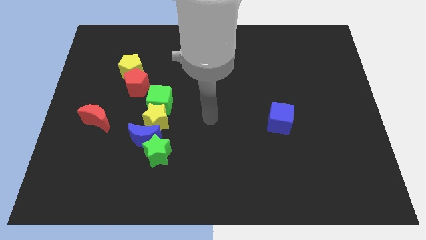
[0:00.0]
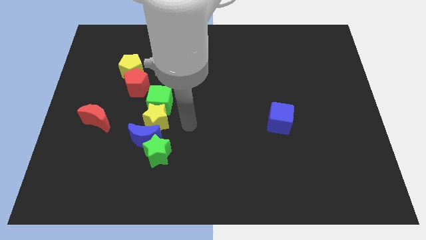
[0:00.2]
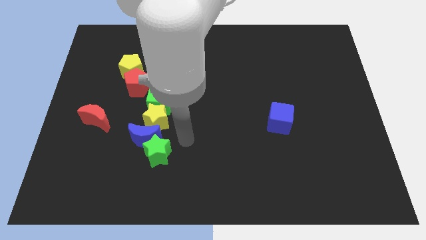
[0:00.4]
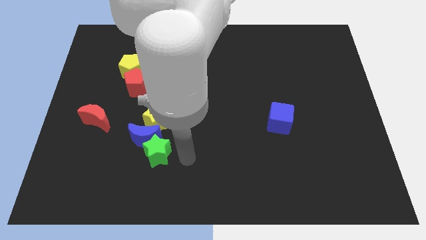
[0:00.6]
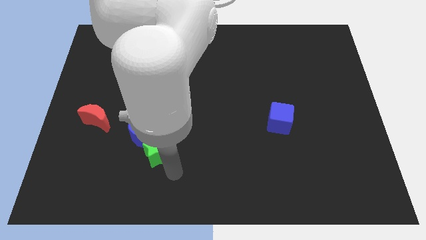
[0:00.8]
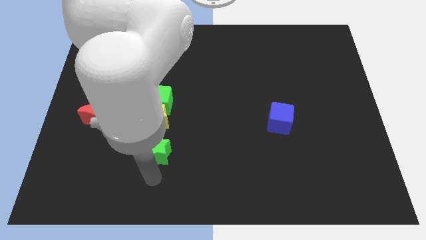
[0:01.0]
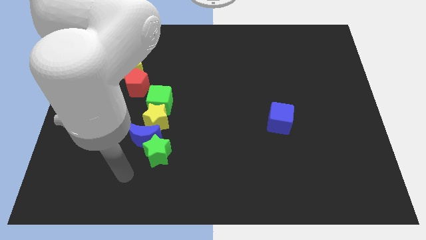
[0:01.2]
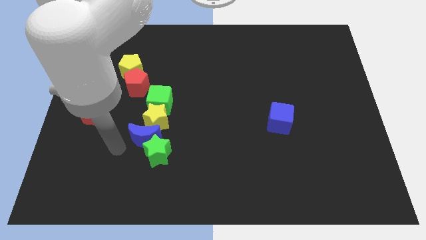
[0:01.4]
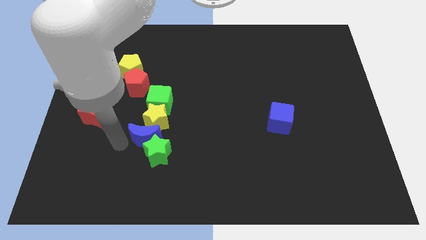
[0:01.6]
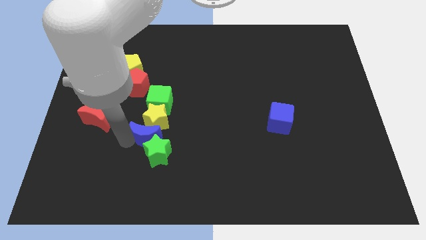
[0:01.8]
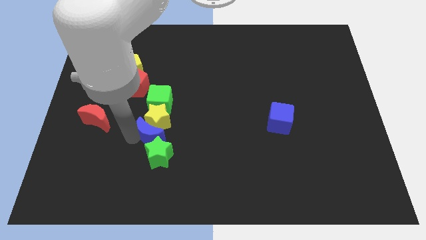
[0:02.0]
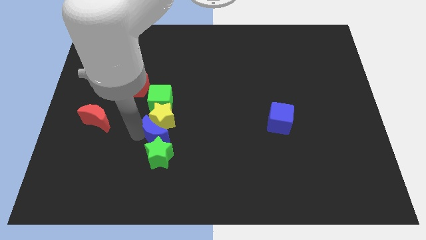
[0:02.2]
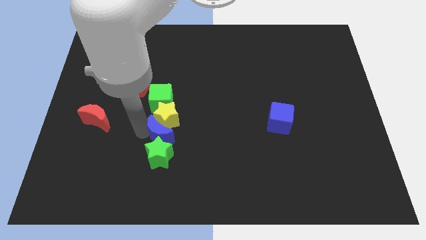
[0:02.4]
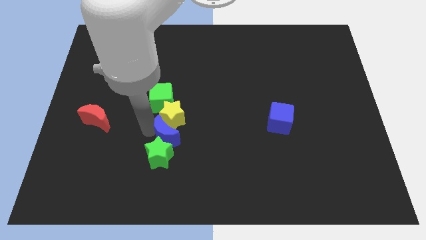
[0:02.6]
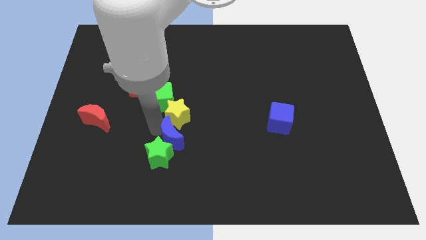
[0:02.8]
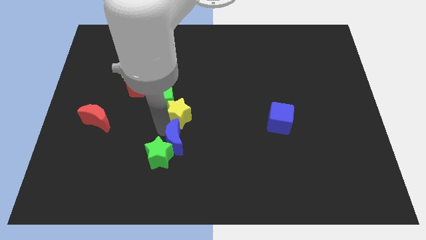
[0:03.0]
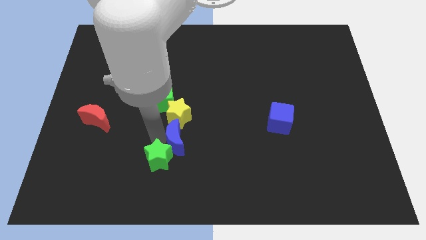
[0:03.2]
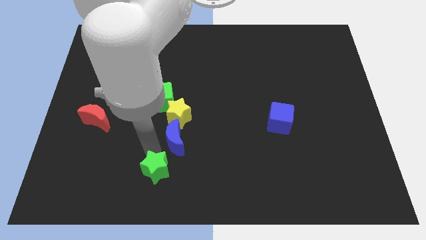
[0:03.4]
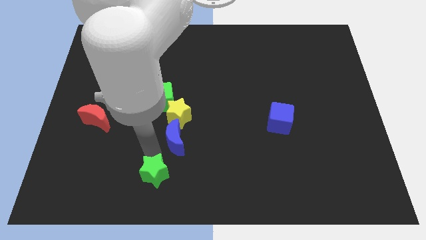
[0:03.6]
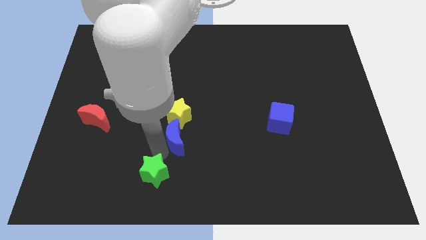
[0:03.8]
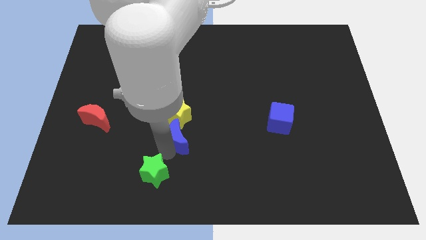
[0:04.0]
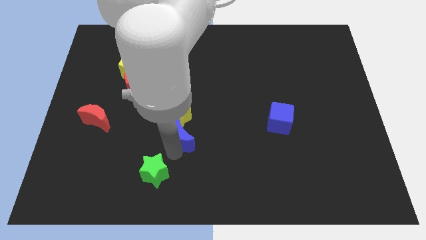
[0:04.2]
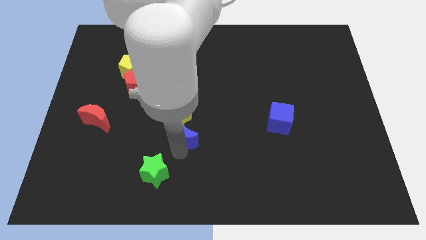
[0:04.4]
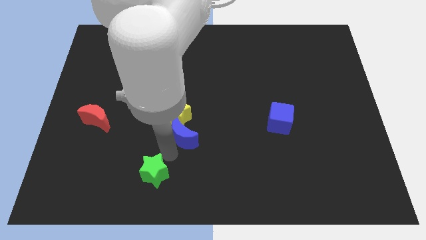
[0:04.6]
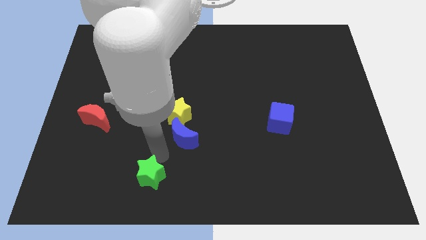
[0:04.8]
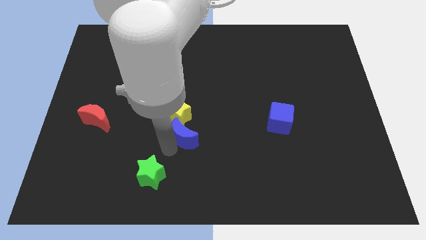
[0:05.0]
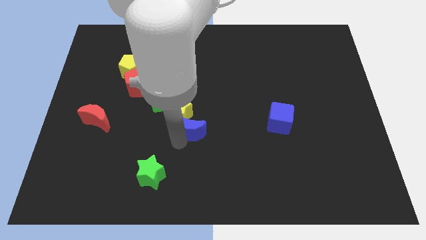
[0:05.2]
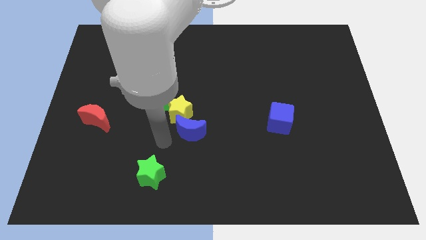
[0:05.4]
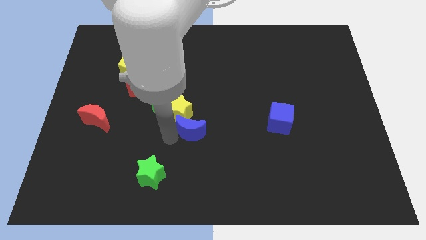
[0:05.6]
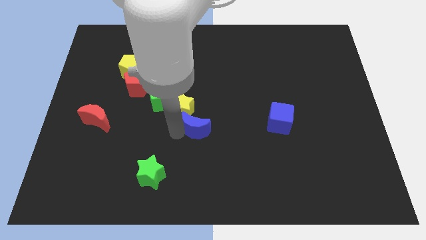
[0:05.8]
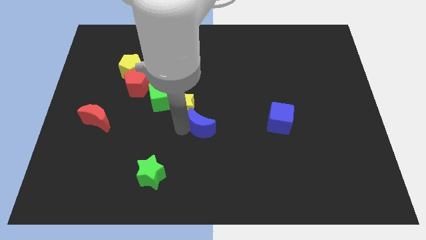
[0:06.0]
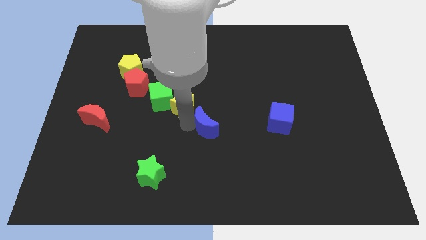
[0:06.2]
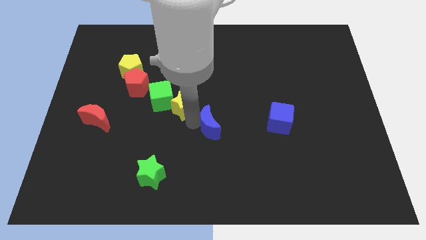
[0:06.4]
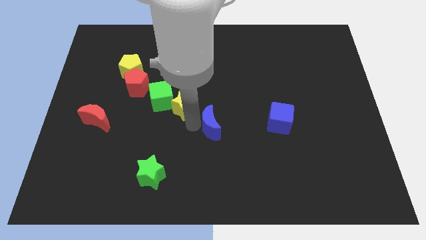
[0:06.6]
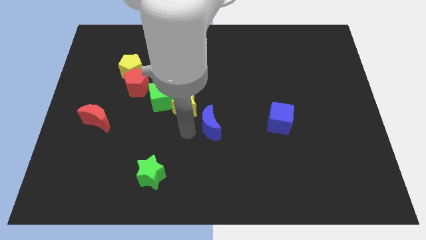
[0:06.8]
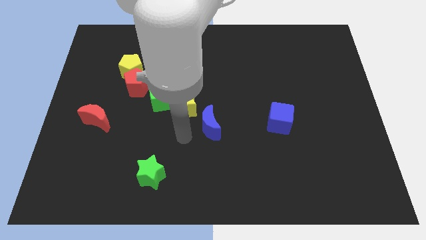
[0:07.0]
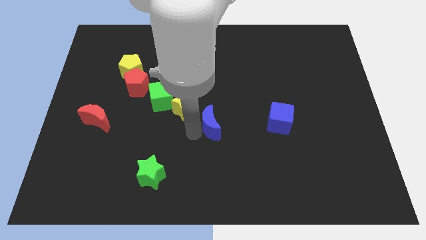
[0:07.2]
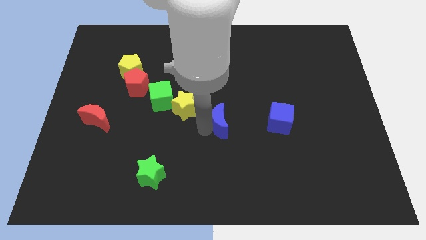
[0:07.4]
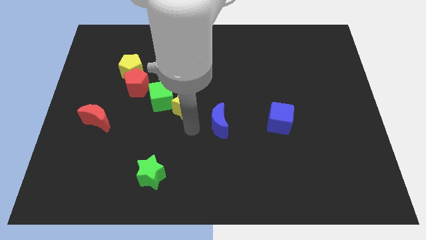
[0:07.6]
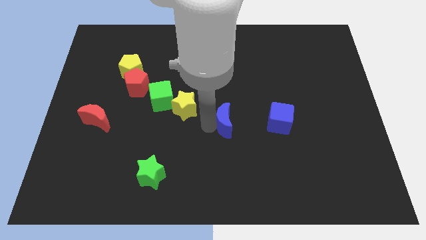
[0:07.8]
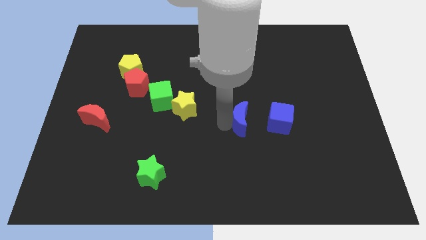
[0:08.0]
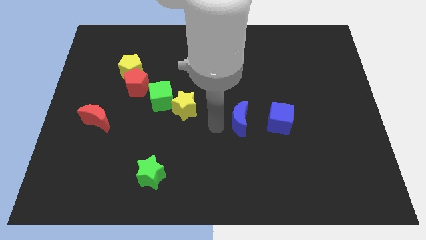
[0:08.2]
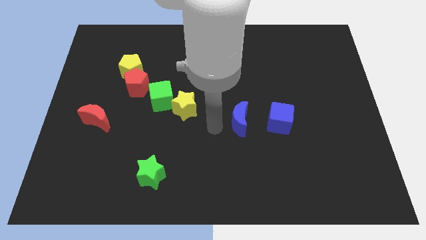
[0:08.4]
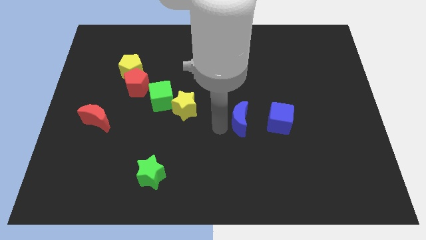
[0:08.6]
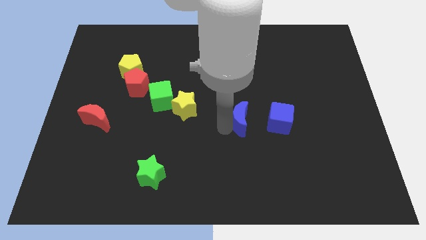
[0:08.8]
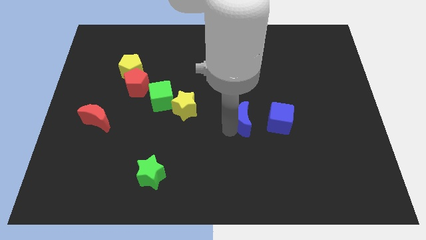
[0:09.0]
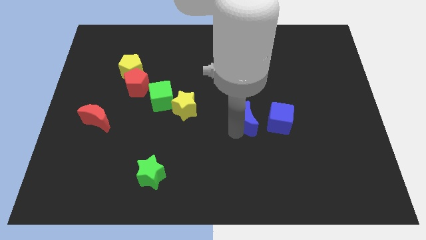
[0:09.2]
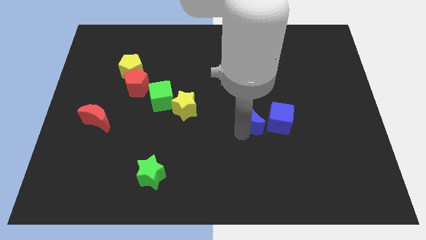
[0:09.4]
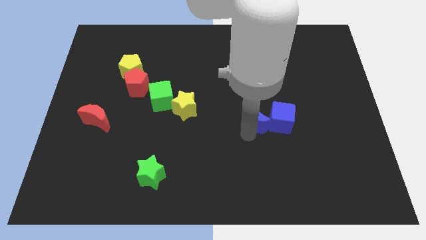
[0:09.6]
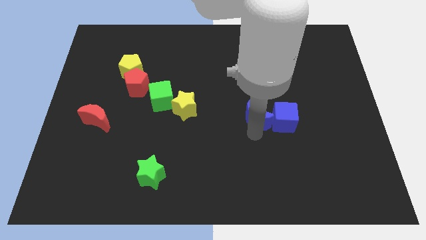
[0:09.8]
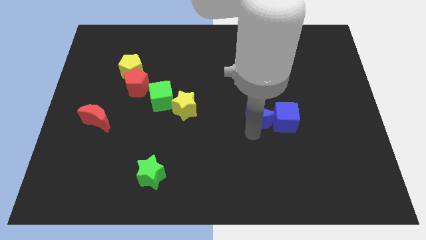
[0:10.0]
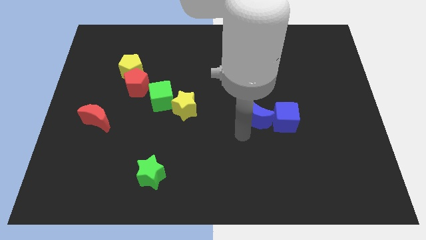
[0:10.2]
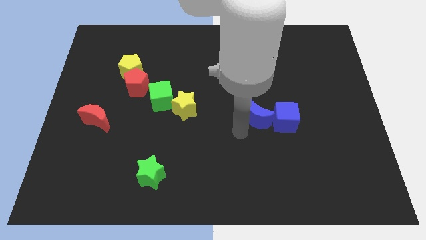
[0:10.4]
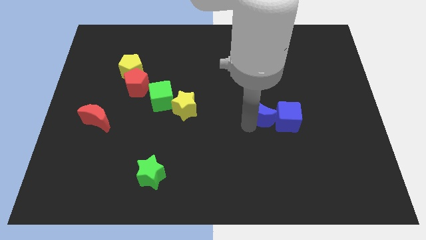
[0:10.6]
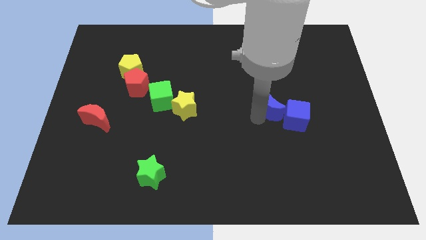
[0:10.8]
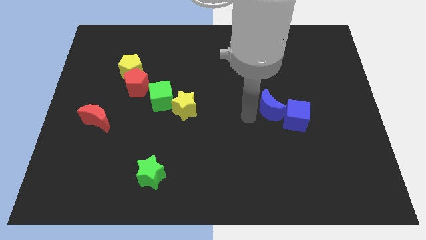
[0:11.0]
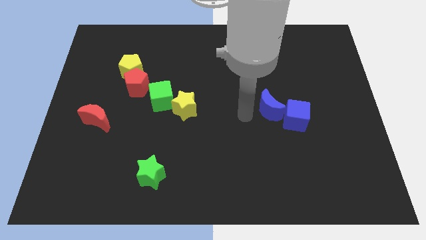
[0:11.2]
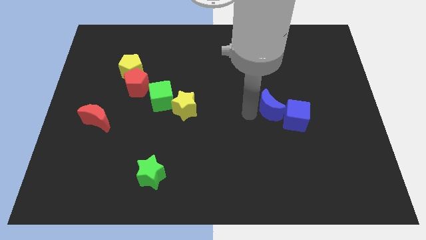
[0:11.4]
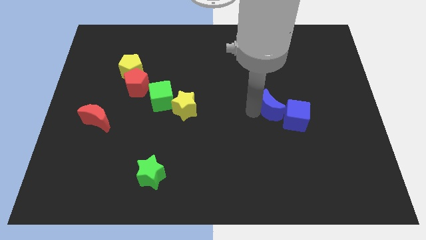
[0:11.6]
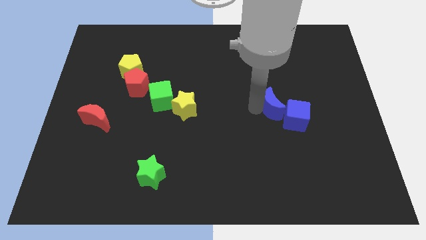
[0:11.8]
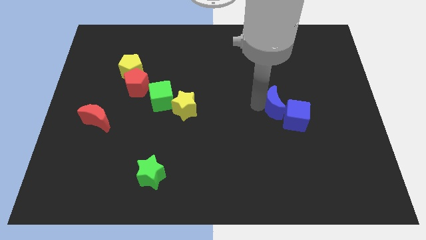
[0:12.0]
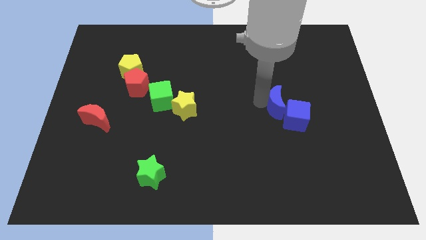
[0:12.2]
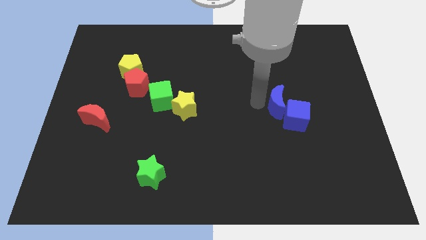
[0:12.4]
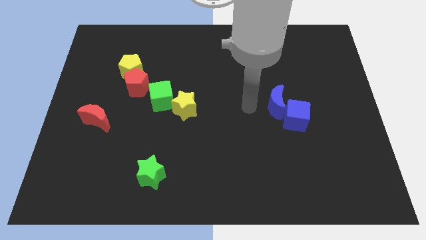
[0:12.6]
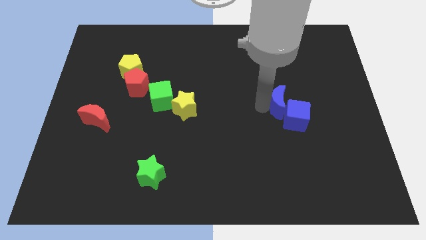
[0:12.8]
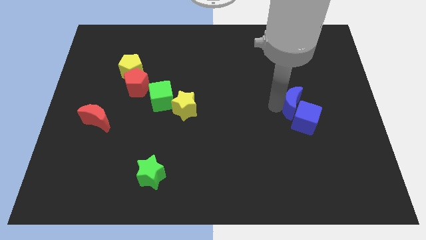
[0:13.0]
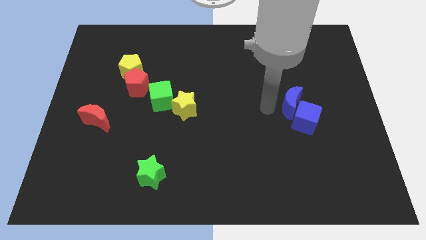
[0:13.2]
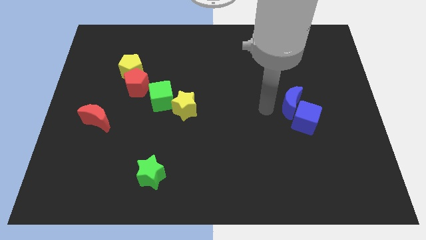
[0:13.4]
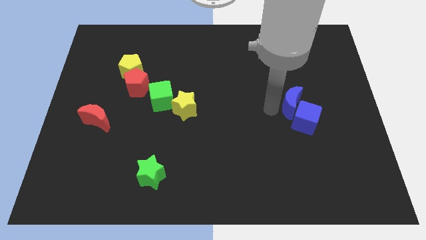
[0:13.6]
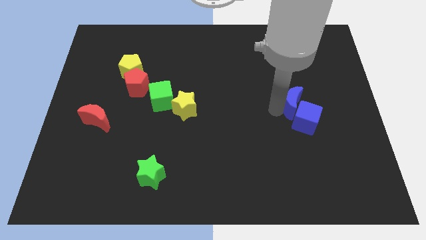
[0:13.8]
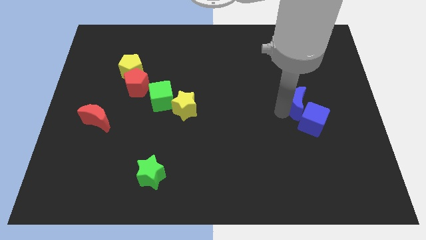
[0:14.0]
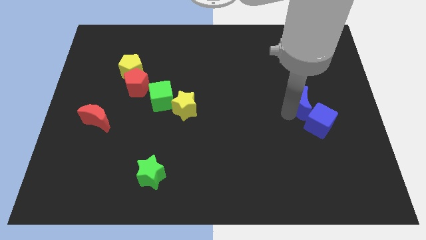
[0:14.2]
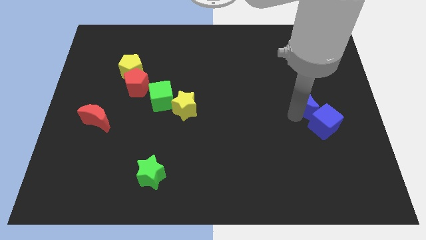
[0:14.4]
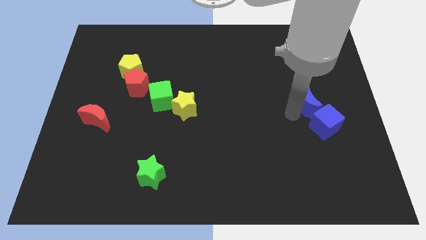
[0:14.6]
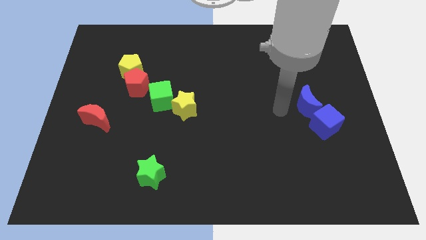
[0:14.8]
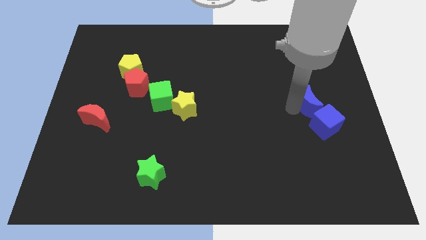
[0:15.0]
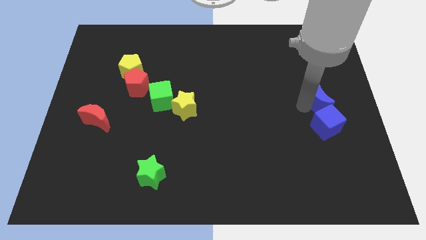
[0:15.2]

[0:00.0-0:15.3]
push the blue moon to the center right
